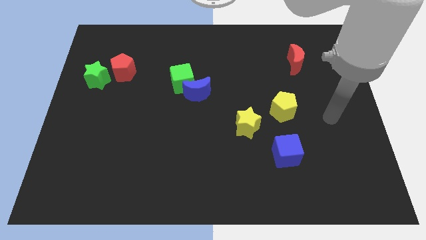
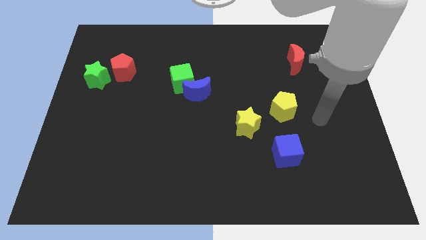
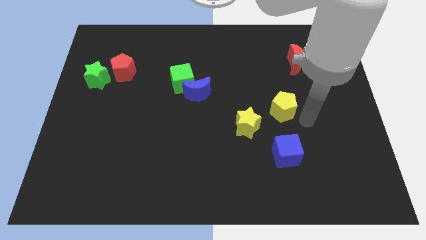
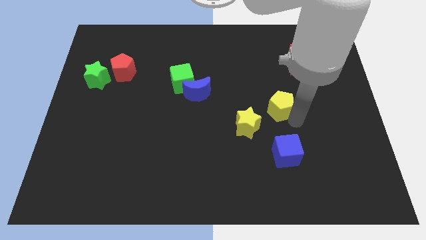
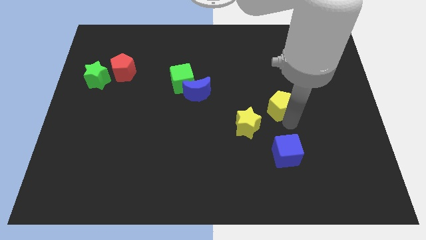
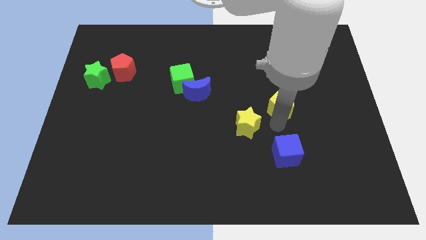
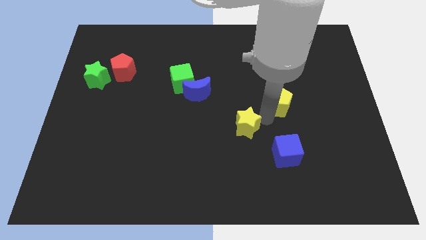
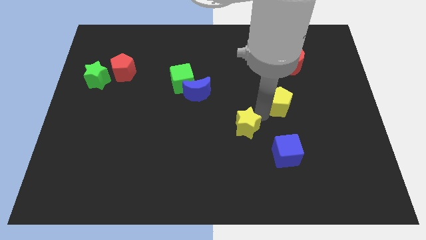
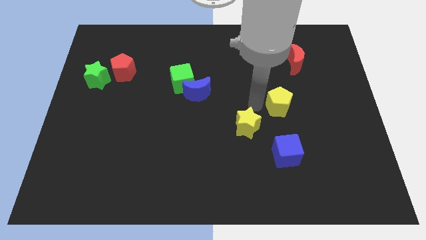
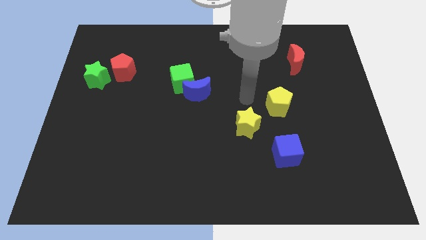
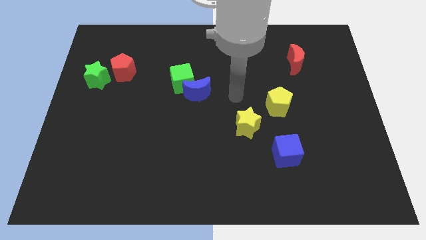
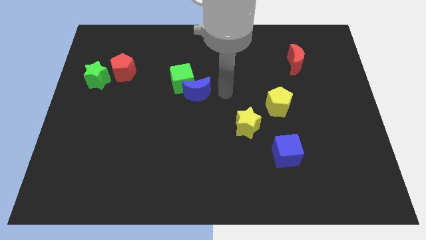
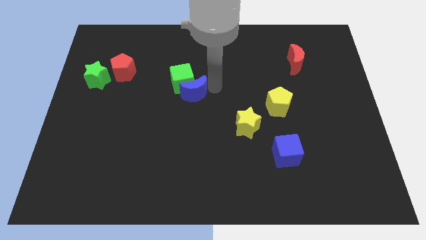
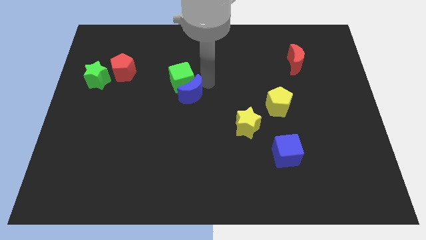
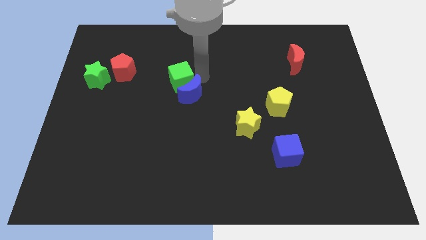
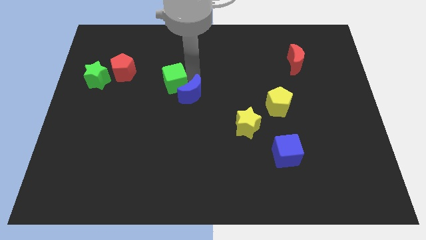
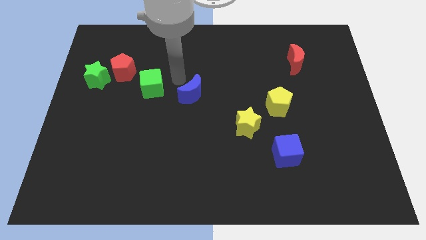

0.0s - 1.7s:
separate the blue moon from the green cube

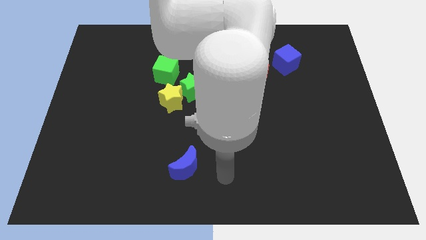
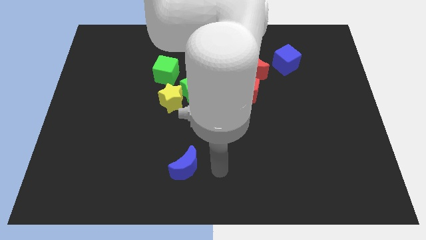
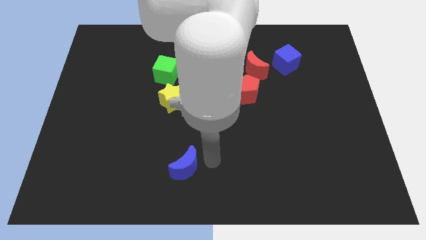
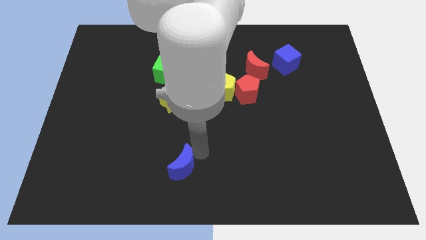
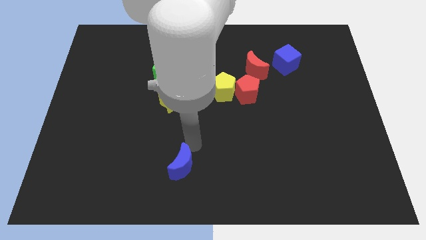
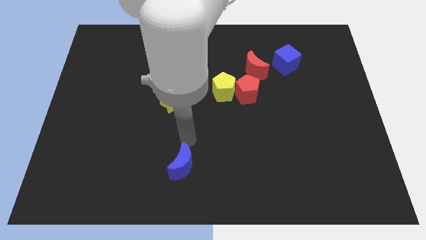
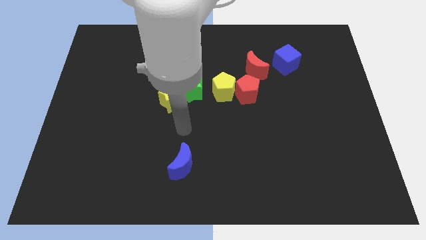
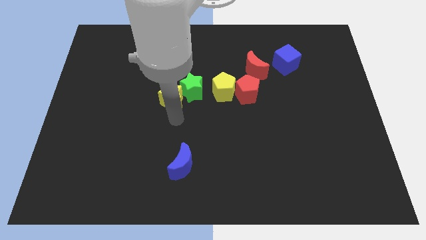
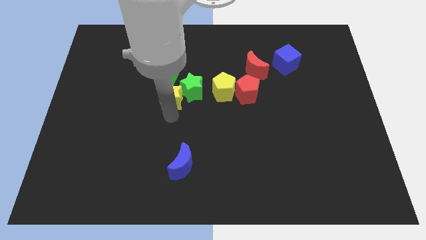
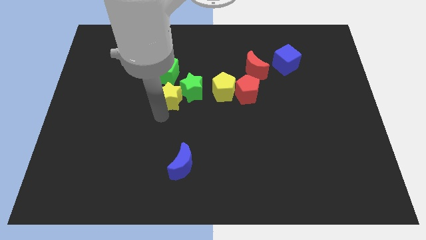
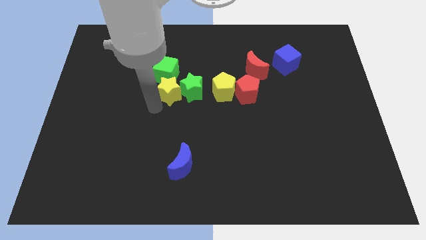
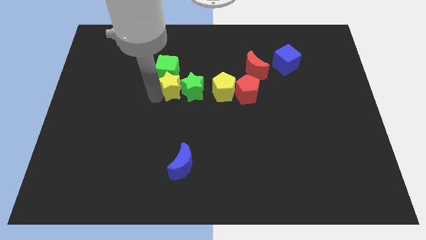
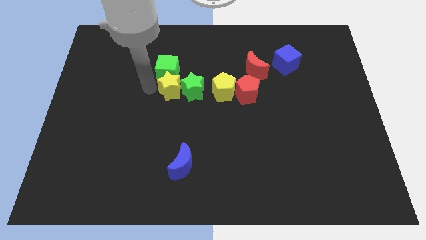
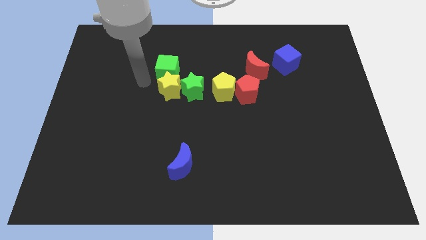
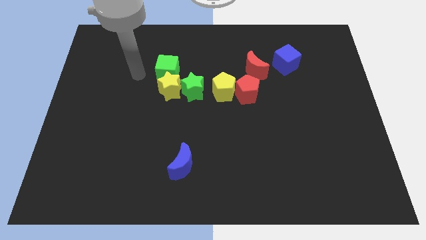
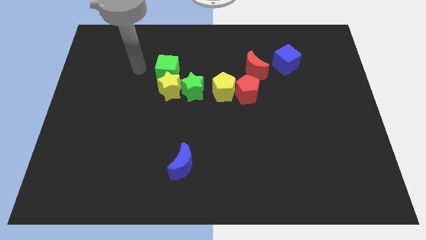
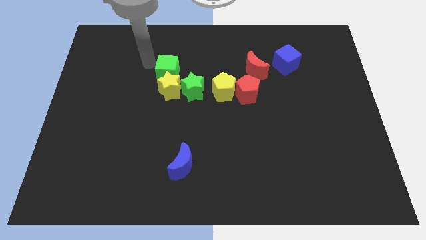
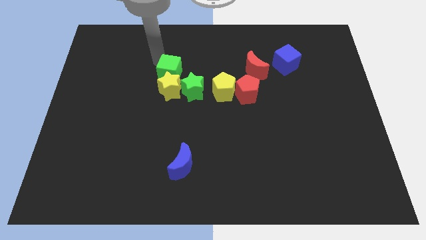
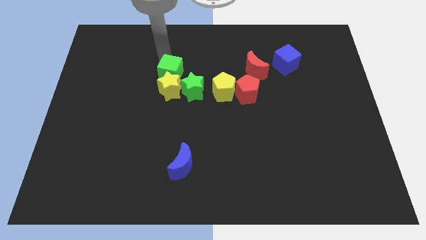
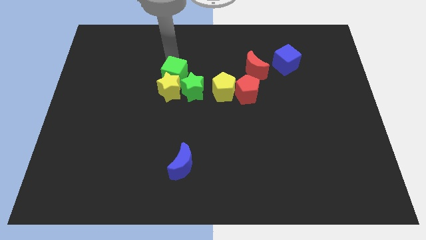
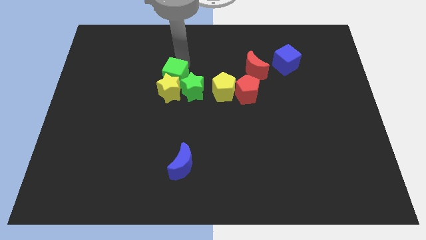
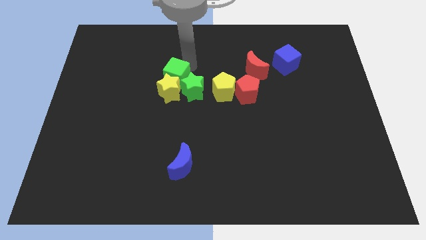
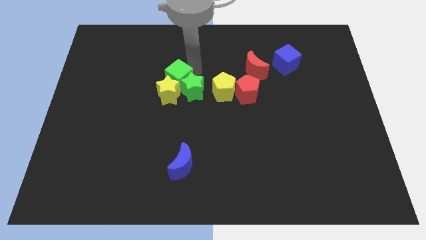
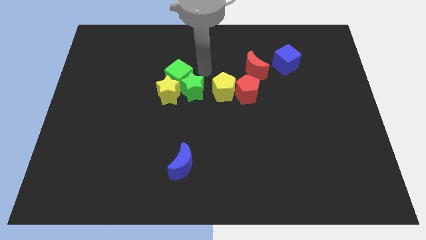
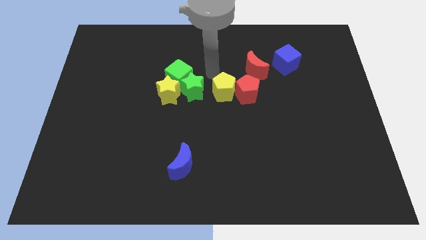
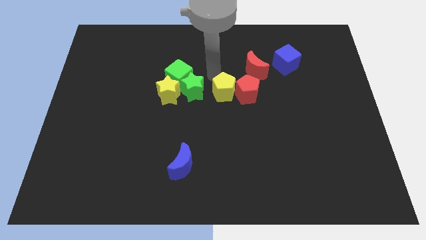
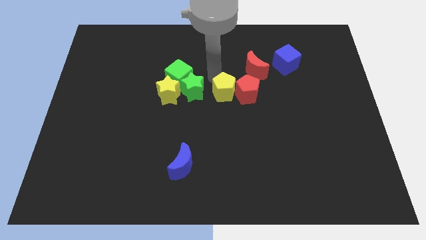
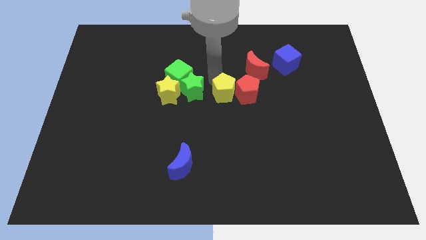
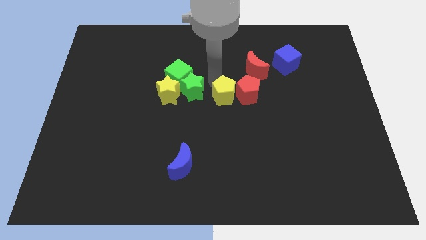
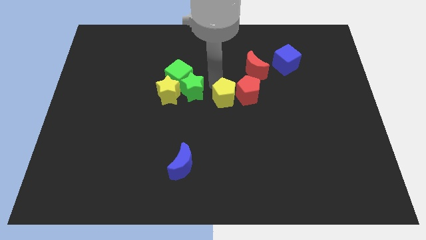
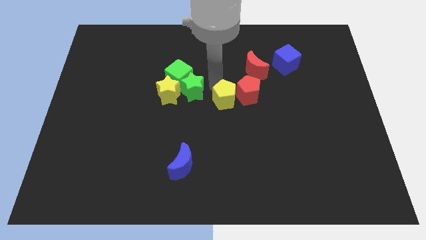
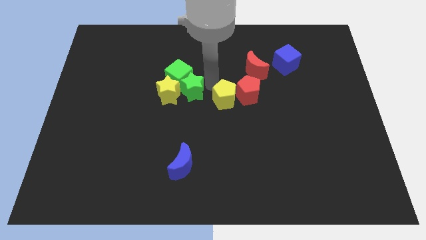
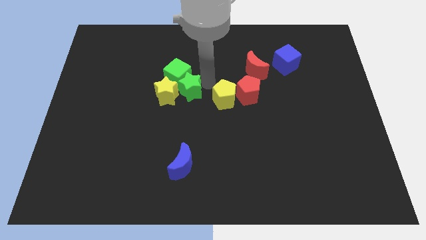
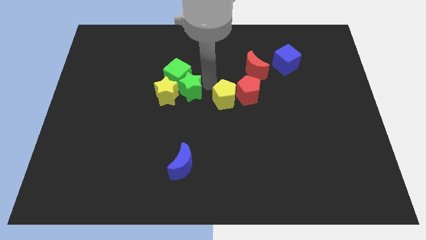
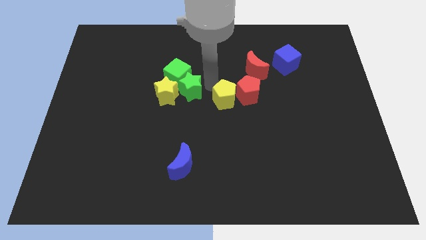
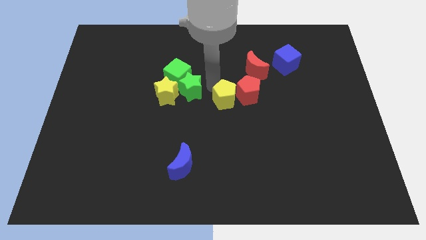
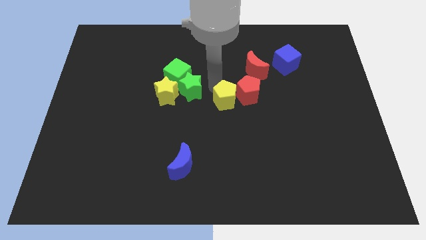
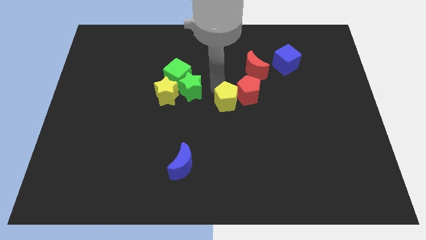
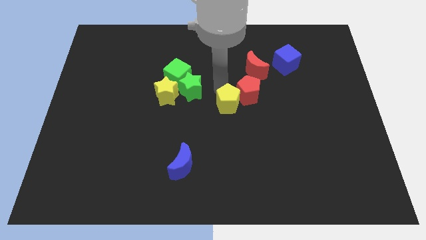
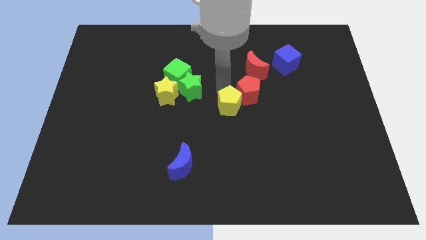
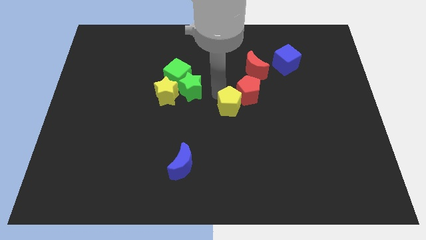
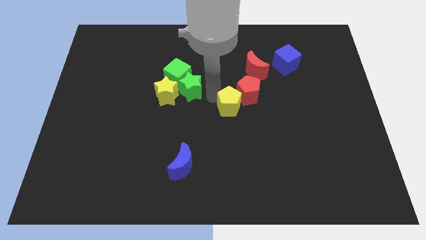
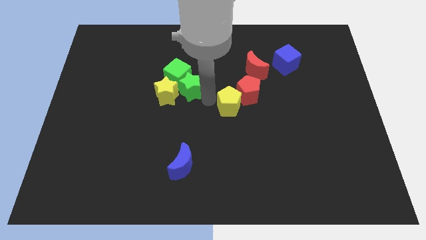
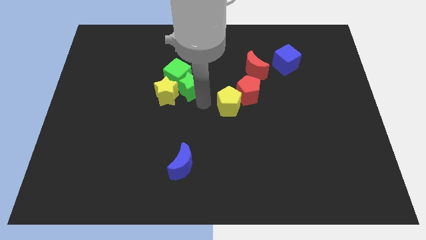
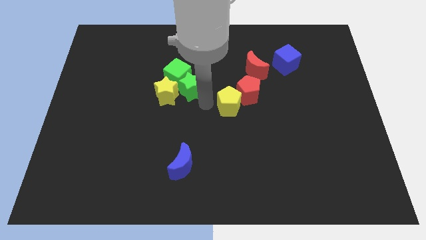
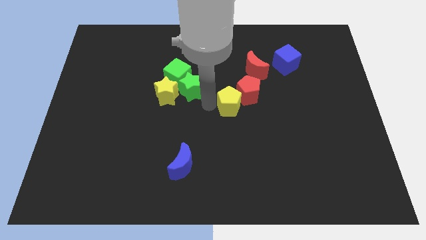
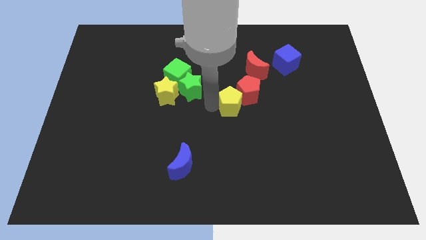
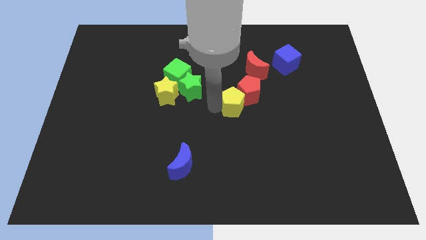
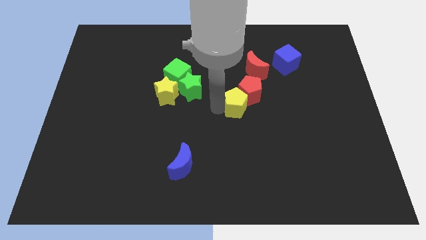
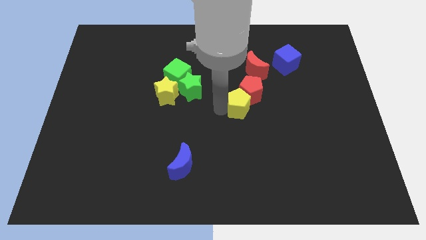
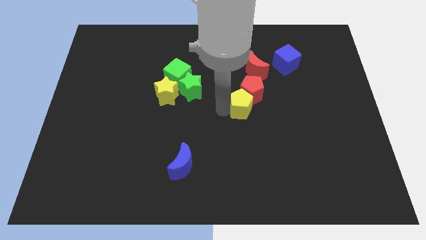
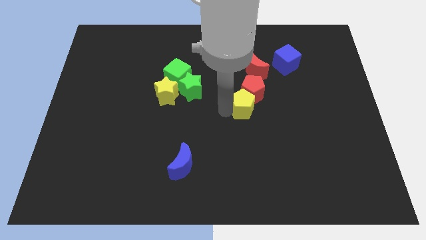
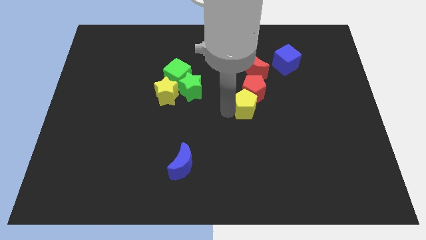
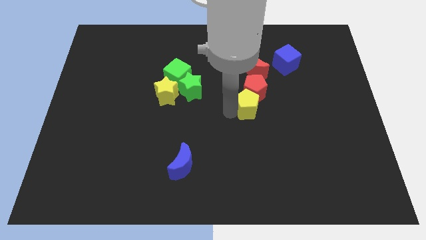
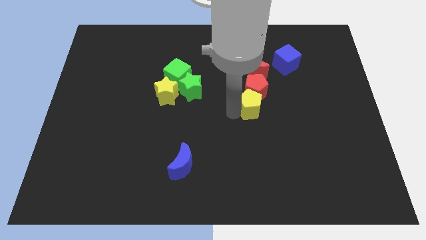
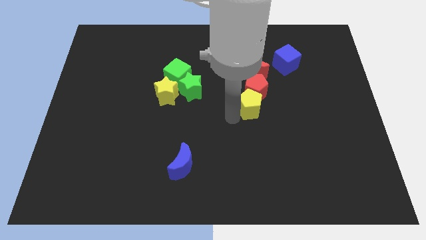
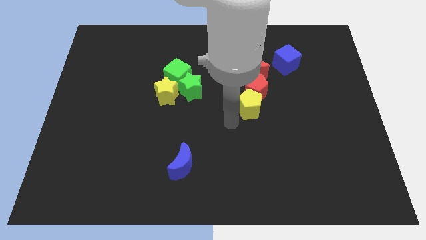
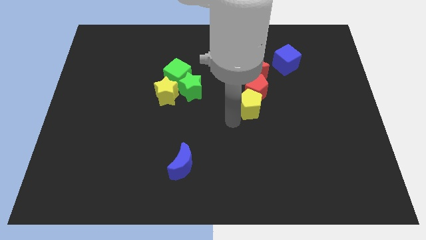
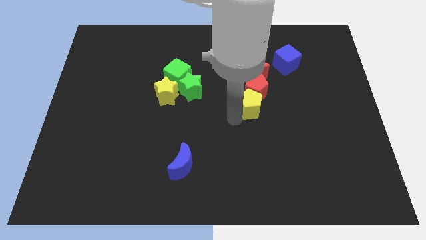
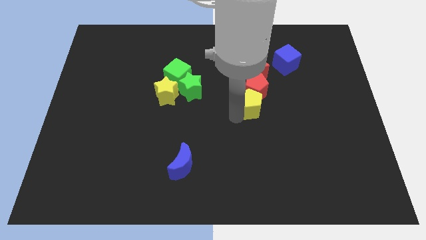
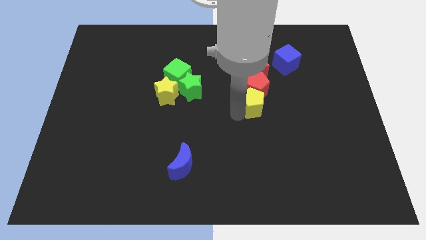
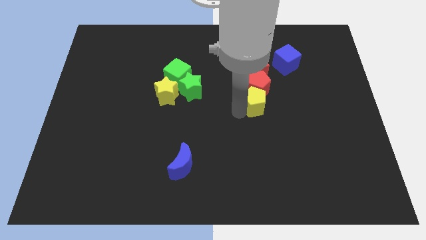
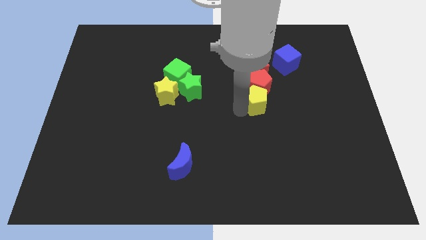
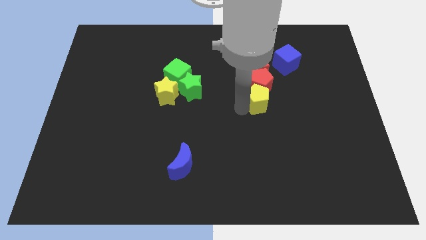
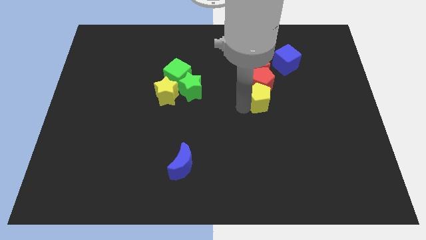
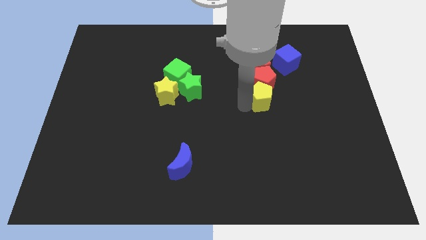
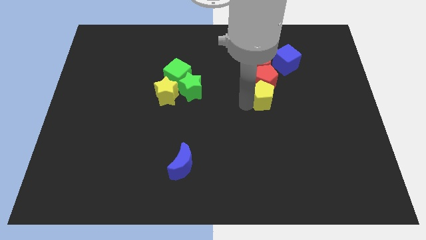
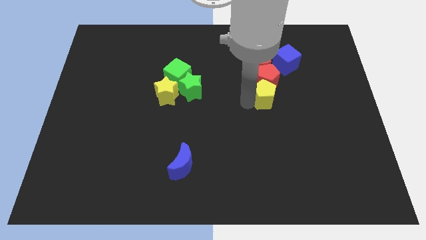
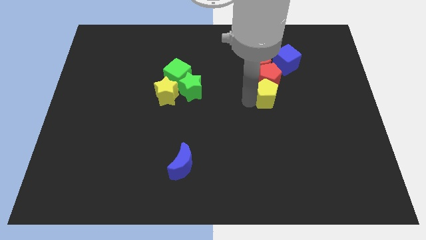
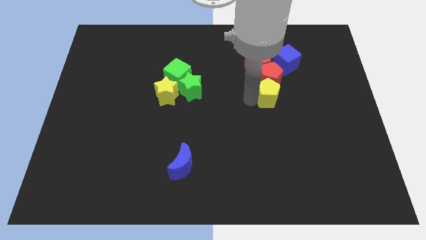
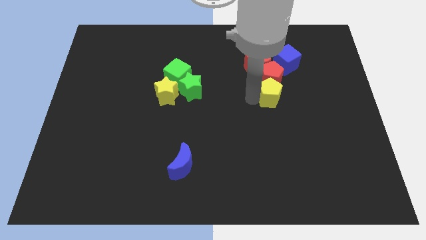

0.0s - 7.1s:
pull the yellow pentagon apart from the red pentagon and green star

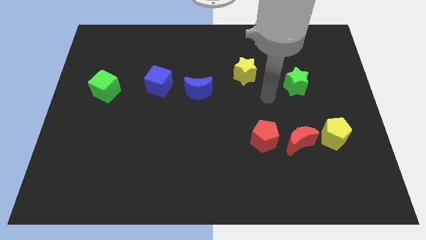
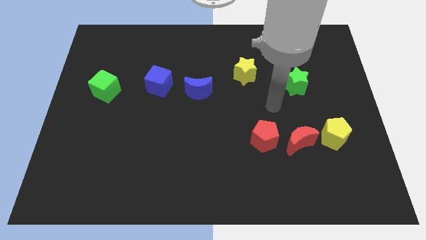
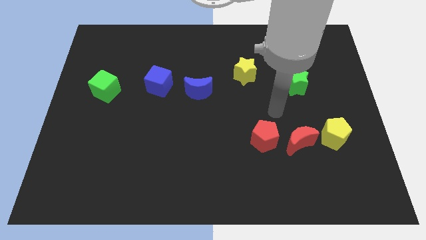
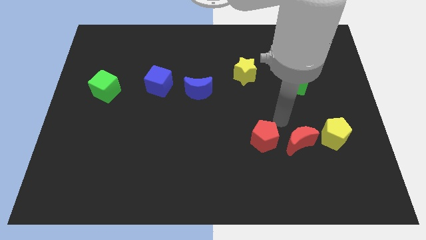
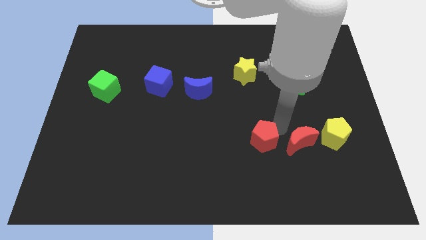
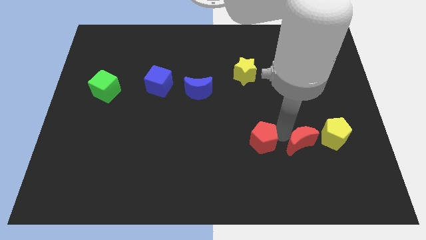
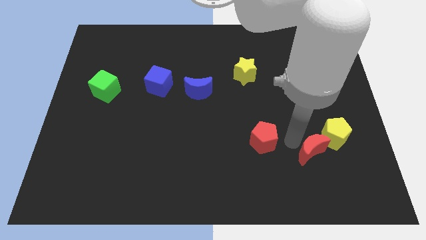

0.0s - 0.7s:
separate the red pentagon from the red moon
